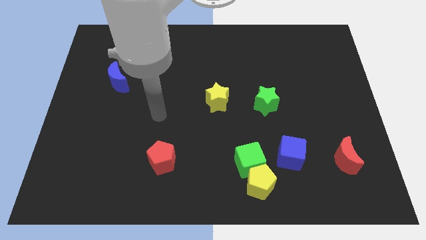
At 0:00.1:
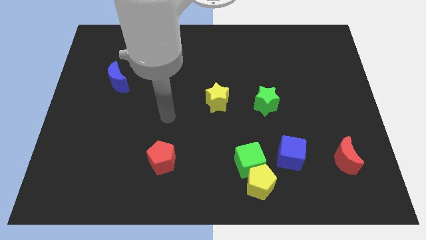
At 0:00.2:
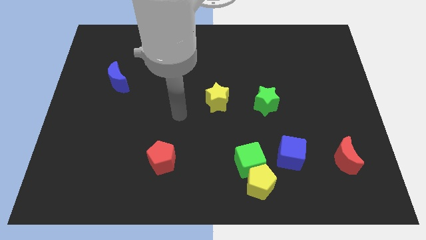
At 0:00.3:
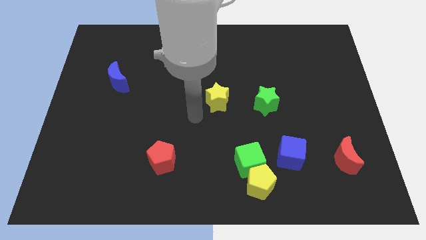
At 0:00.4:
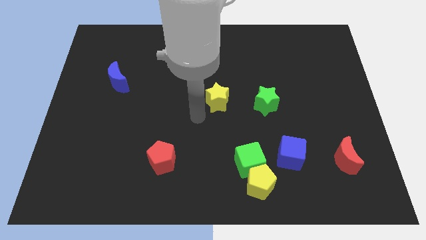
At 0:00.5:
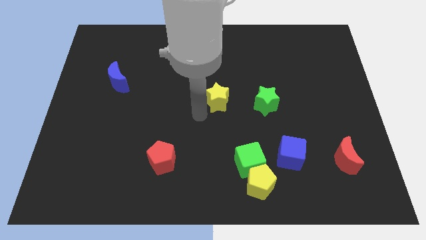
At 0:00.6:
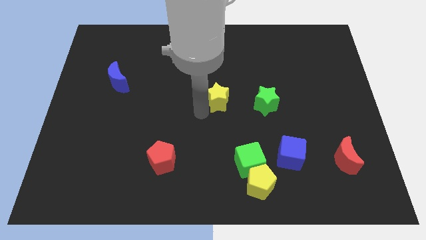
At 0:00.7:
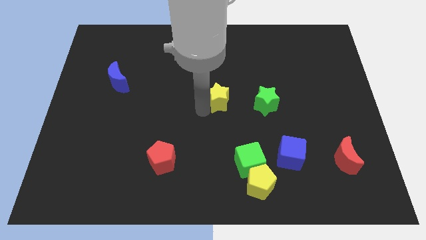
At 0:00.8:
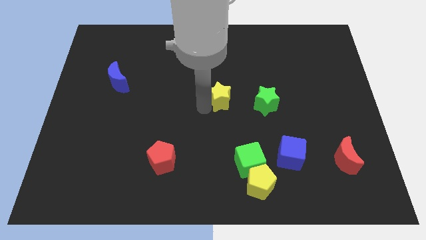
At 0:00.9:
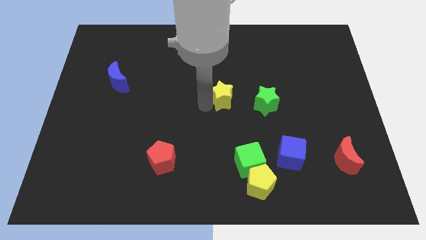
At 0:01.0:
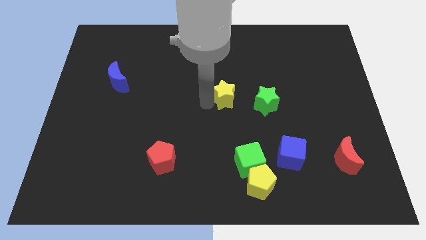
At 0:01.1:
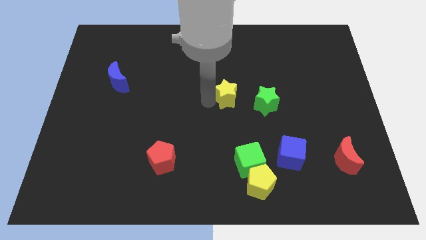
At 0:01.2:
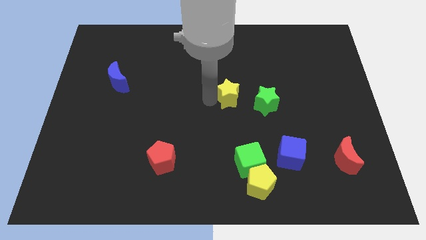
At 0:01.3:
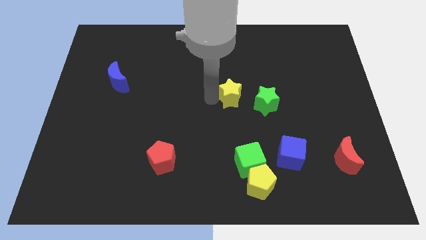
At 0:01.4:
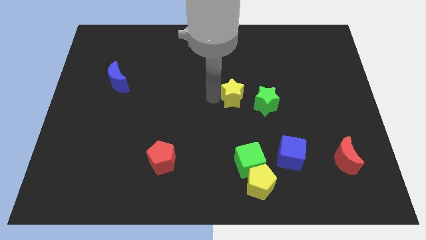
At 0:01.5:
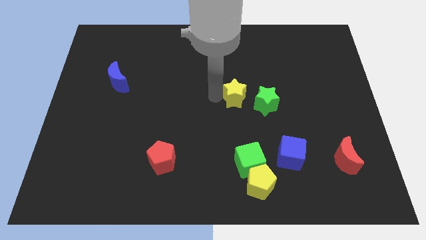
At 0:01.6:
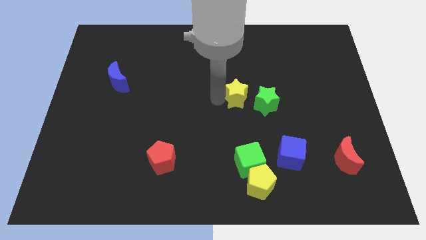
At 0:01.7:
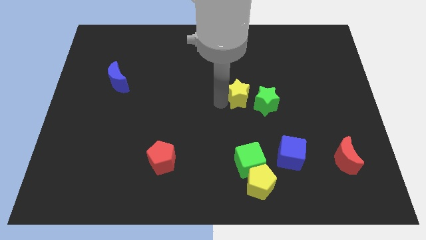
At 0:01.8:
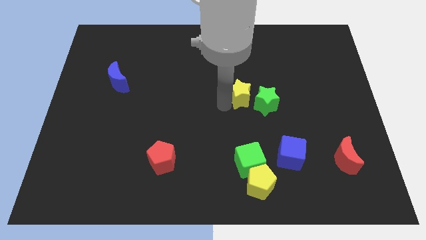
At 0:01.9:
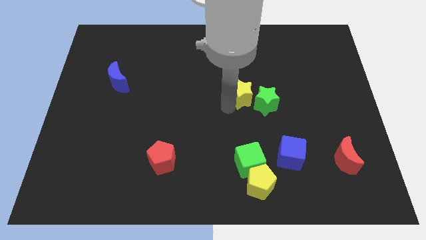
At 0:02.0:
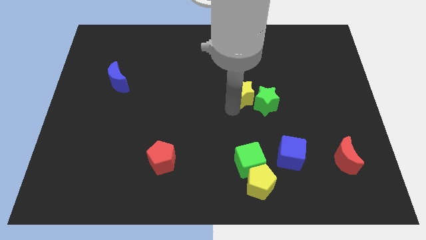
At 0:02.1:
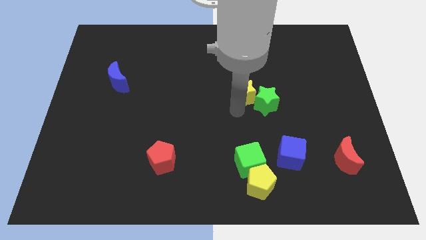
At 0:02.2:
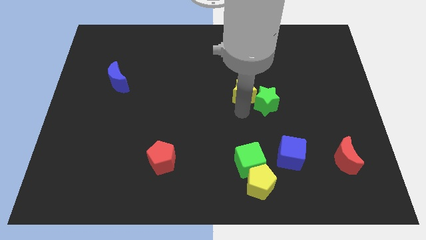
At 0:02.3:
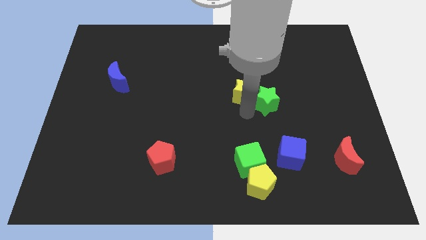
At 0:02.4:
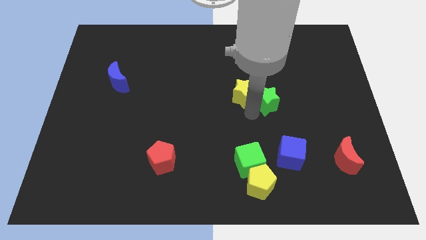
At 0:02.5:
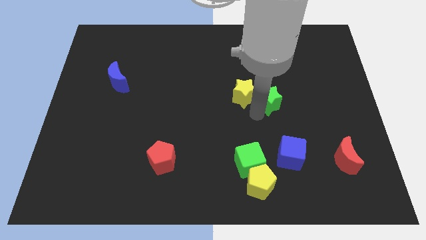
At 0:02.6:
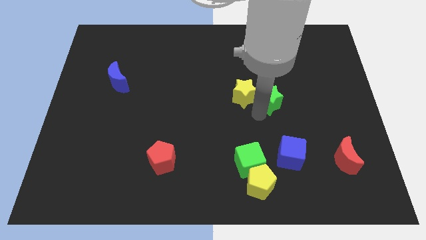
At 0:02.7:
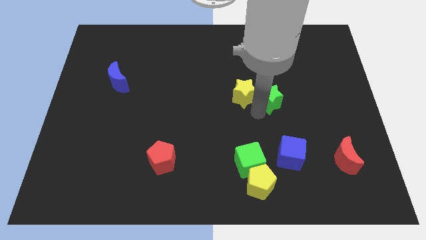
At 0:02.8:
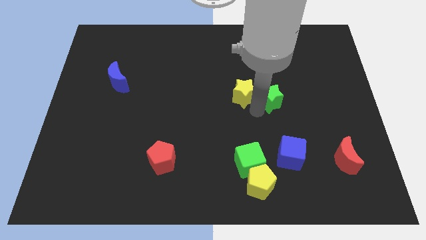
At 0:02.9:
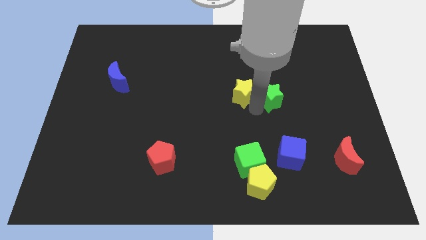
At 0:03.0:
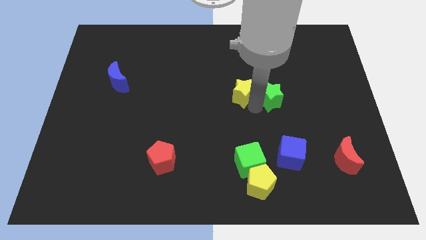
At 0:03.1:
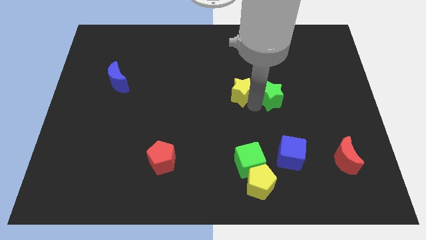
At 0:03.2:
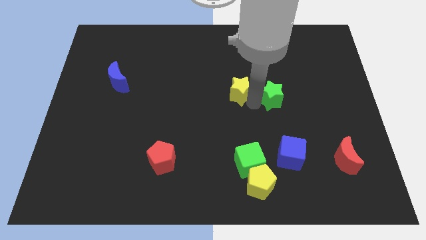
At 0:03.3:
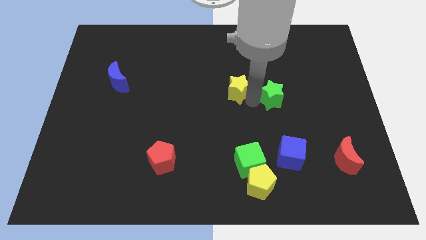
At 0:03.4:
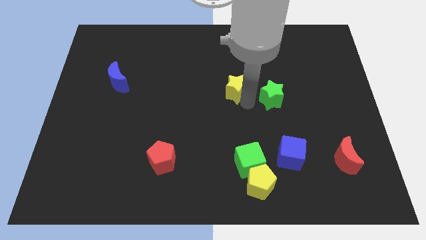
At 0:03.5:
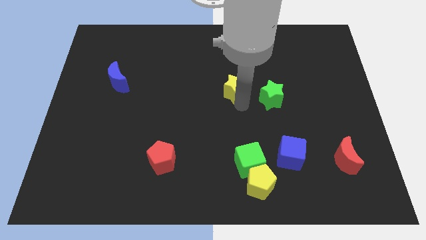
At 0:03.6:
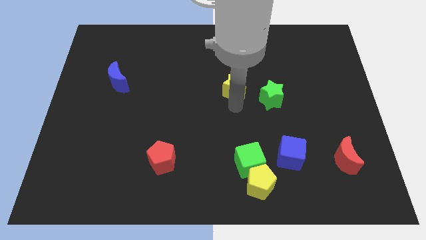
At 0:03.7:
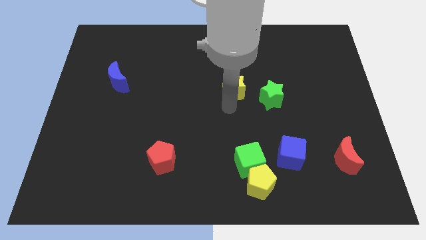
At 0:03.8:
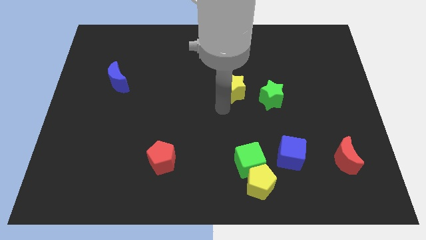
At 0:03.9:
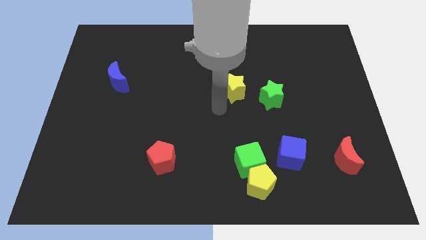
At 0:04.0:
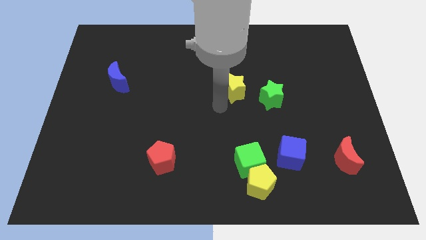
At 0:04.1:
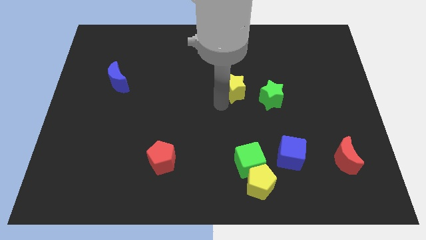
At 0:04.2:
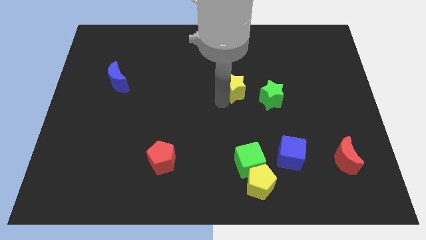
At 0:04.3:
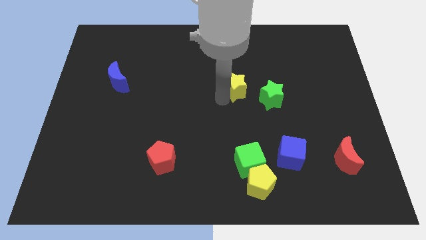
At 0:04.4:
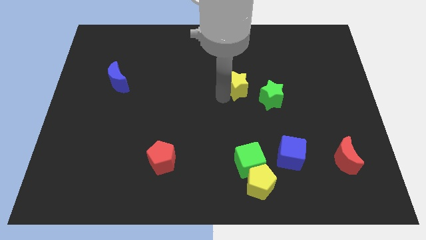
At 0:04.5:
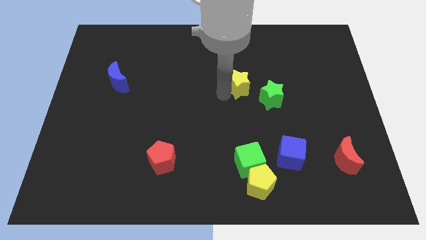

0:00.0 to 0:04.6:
move the yellow star up and right diagonally somewhat

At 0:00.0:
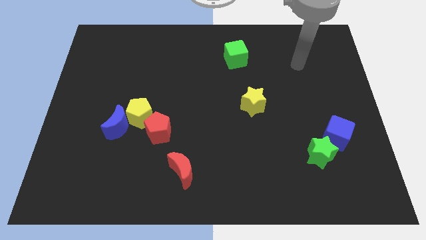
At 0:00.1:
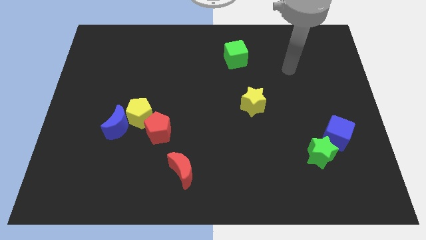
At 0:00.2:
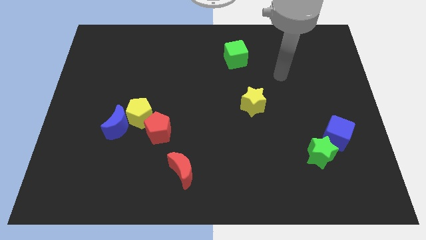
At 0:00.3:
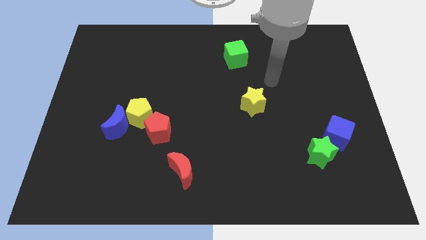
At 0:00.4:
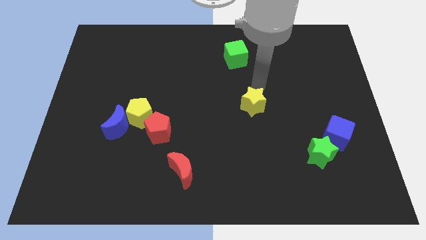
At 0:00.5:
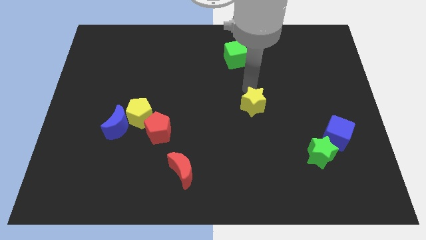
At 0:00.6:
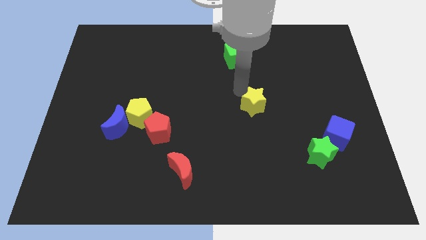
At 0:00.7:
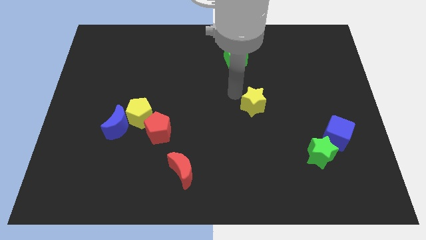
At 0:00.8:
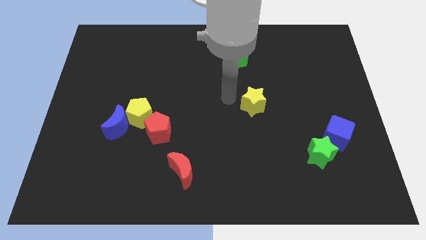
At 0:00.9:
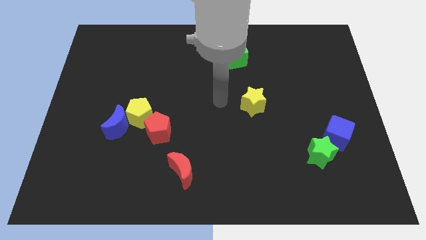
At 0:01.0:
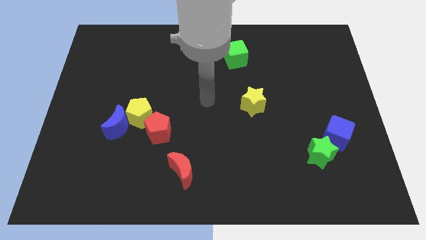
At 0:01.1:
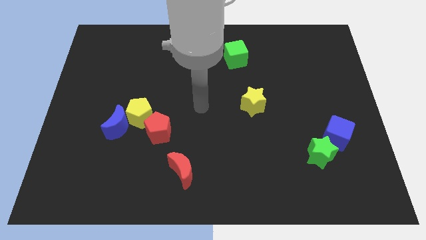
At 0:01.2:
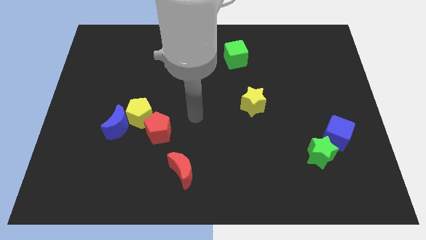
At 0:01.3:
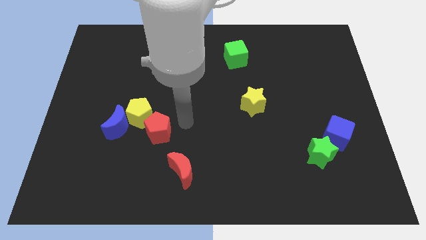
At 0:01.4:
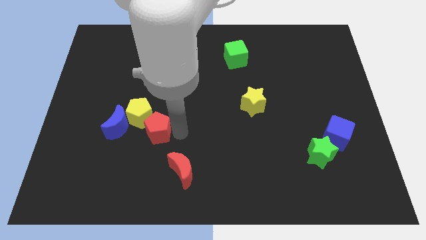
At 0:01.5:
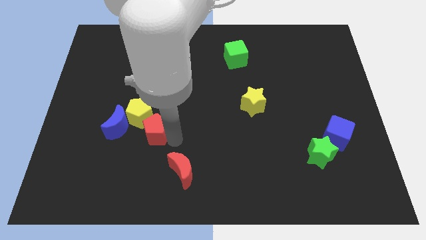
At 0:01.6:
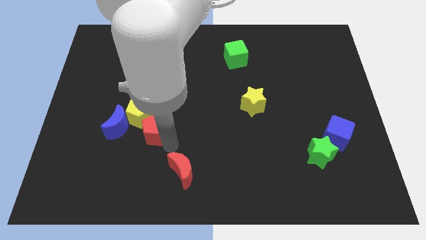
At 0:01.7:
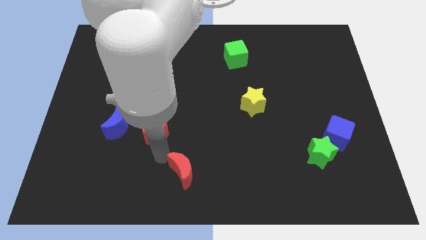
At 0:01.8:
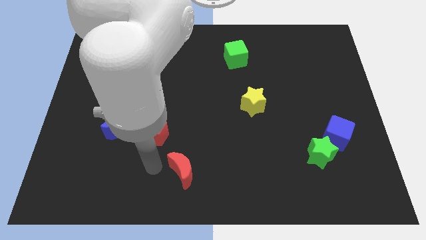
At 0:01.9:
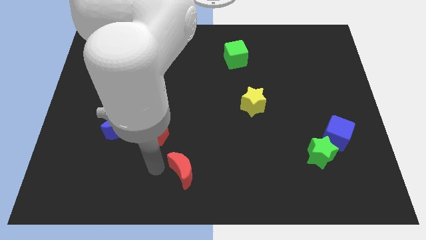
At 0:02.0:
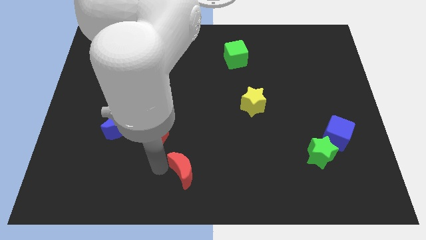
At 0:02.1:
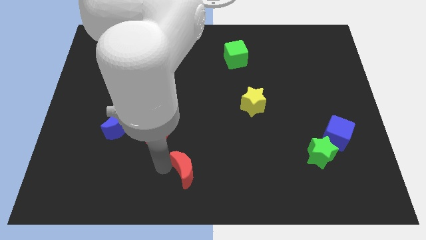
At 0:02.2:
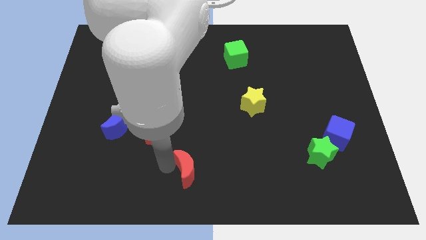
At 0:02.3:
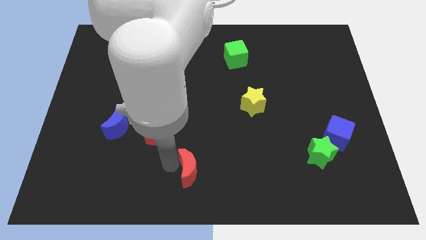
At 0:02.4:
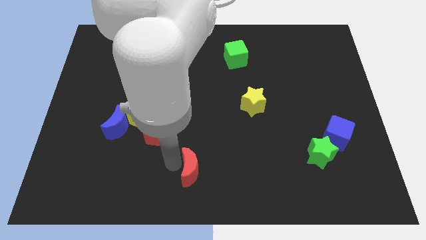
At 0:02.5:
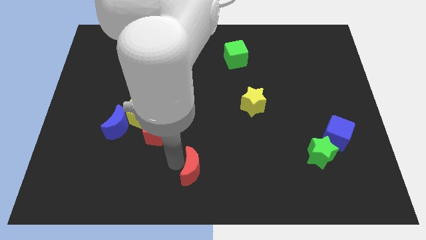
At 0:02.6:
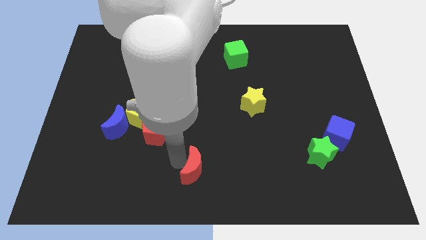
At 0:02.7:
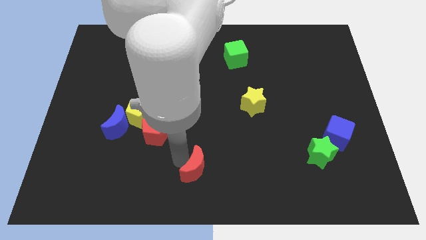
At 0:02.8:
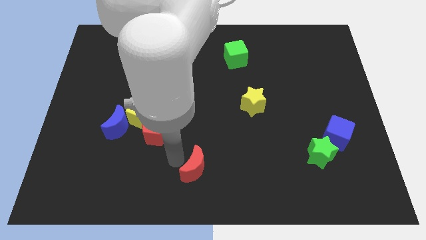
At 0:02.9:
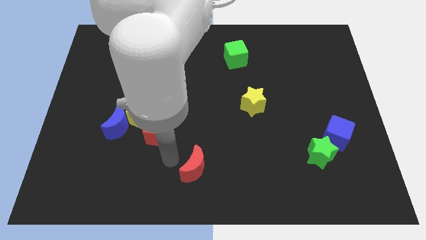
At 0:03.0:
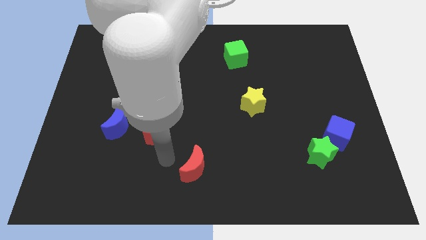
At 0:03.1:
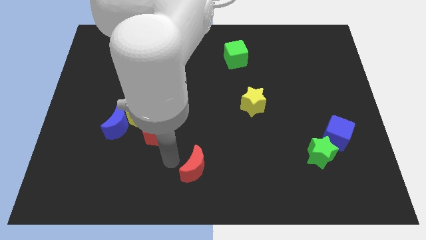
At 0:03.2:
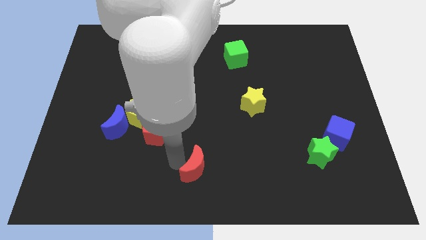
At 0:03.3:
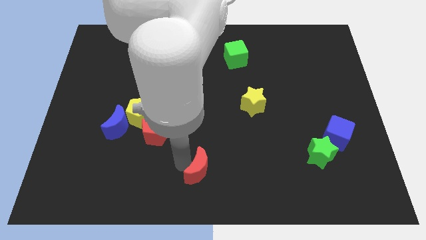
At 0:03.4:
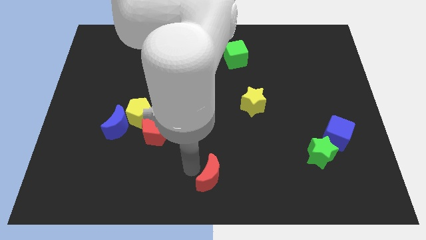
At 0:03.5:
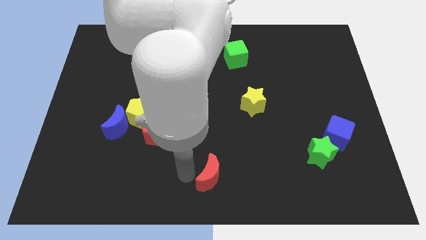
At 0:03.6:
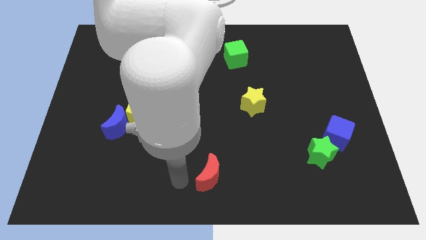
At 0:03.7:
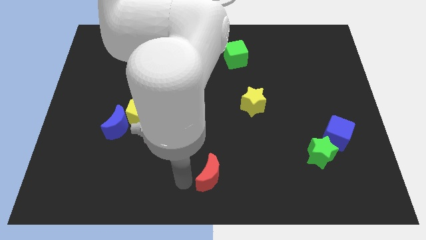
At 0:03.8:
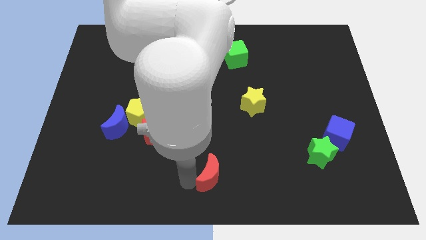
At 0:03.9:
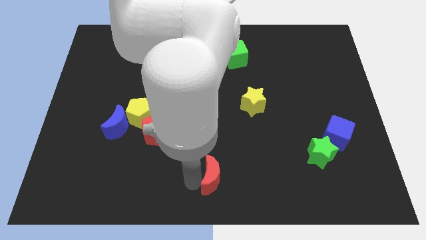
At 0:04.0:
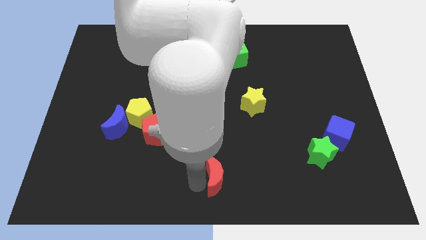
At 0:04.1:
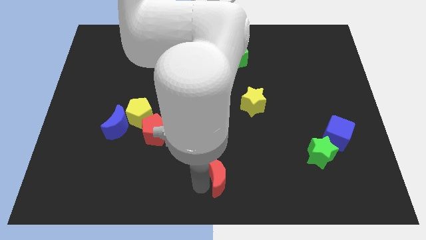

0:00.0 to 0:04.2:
move the red moon somewhat right
